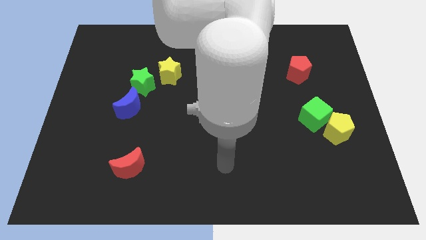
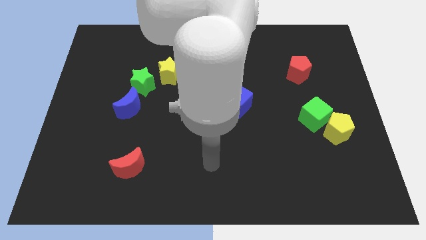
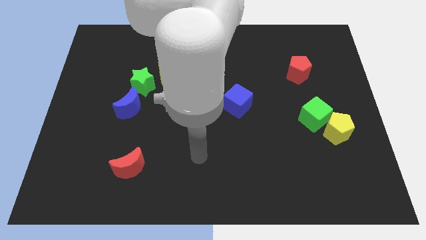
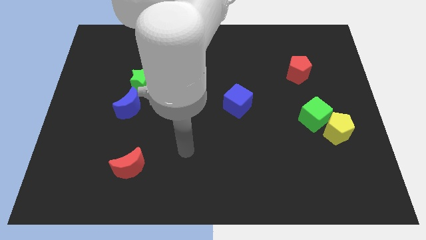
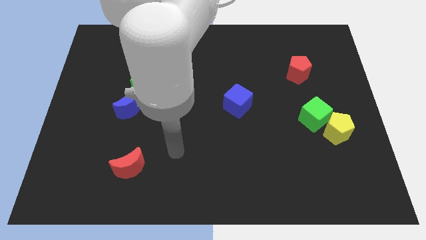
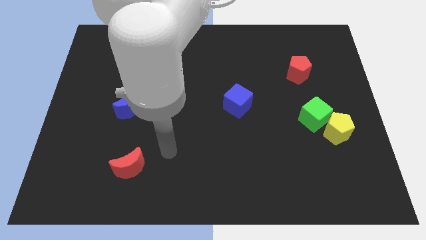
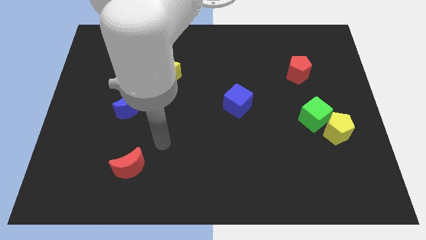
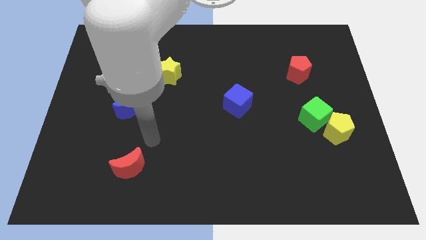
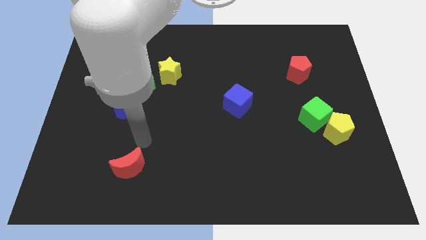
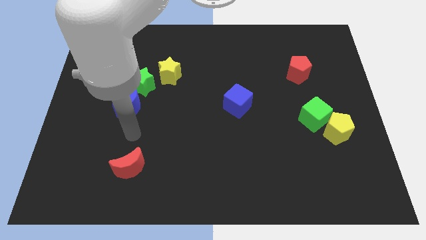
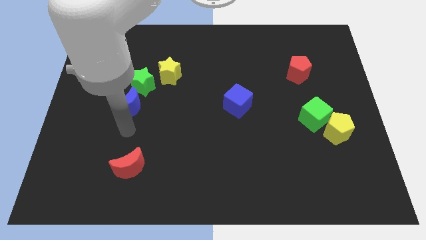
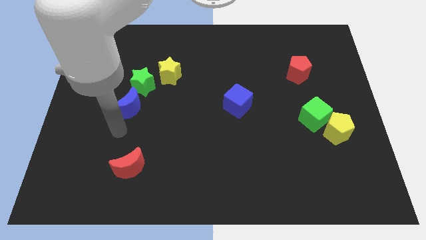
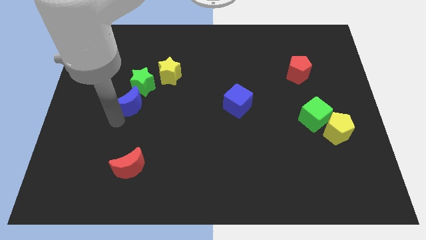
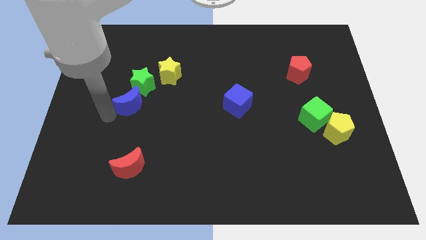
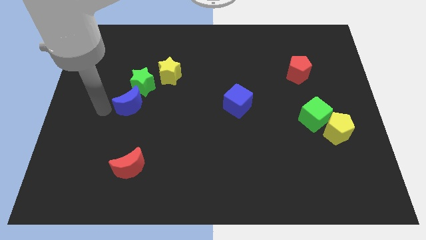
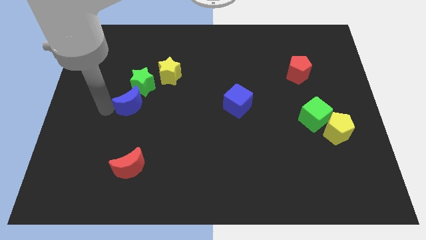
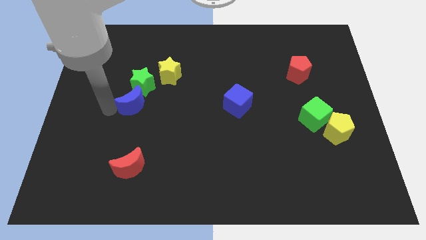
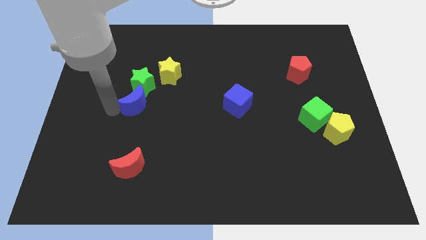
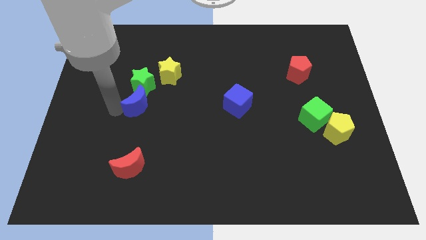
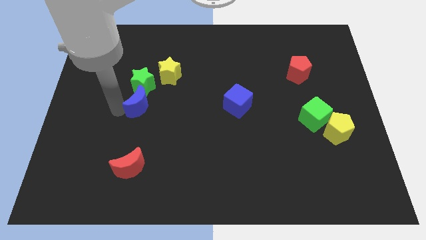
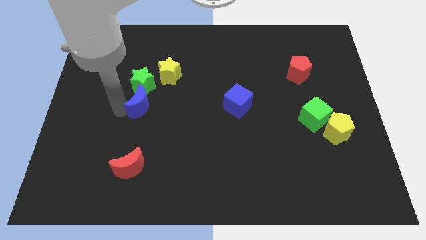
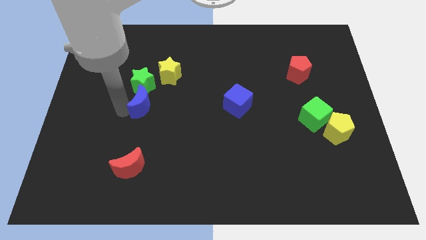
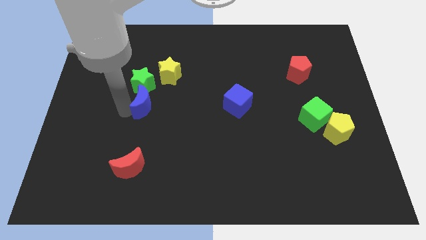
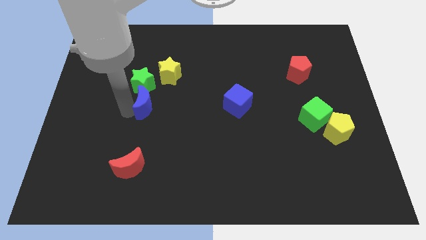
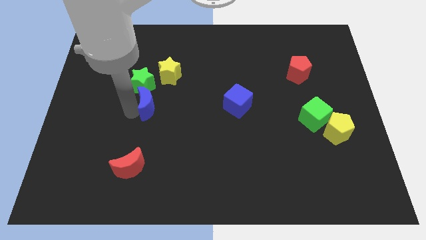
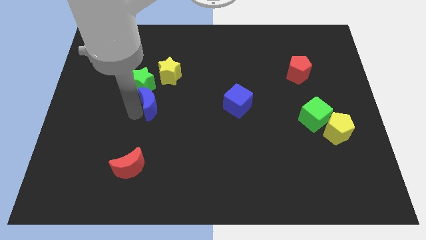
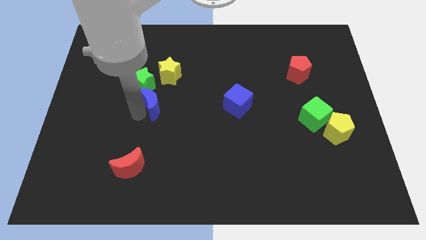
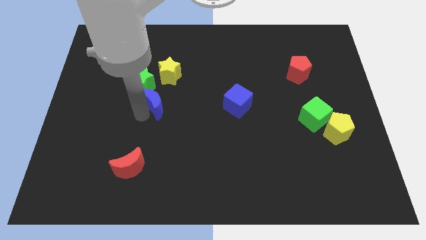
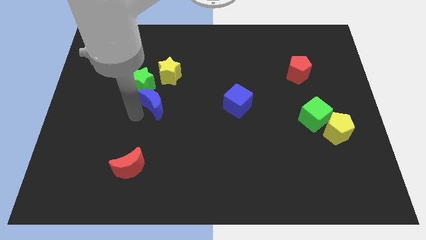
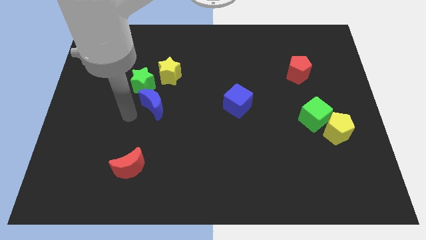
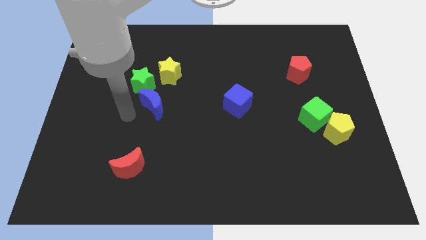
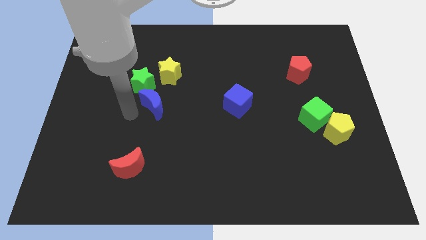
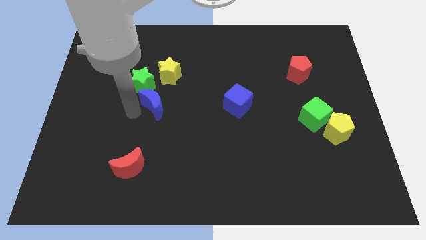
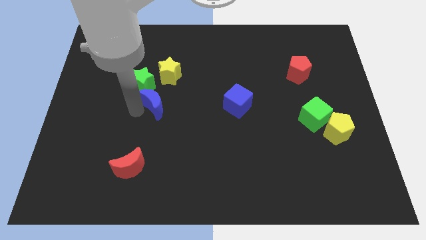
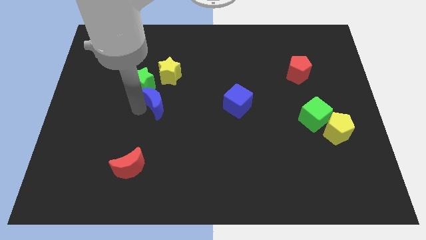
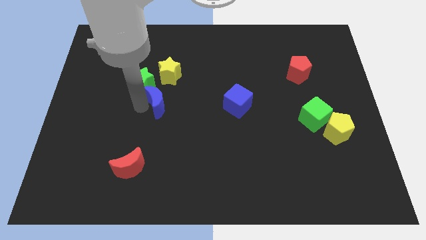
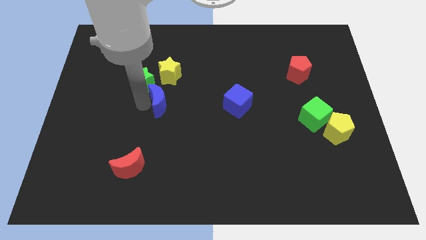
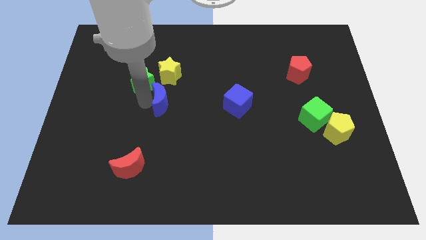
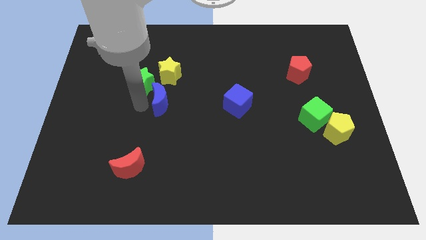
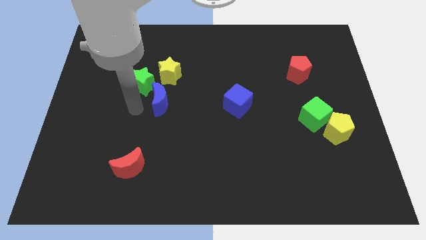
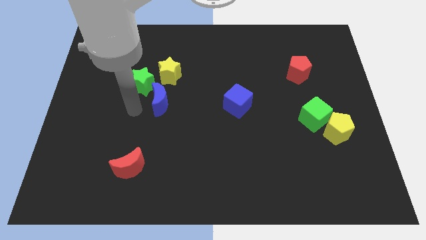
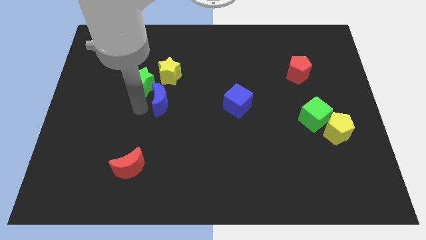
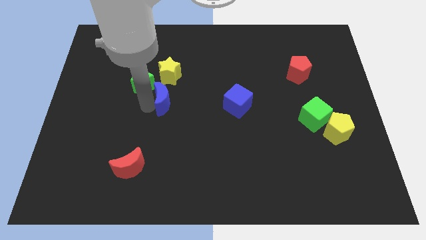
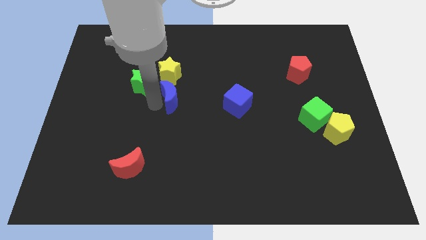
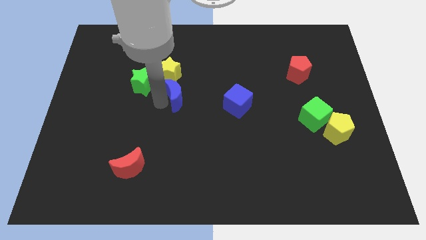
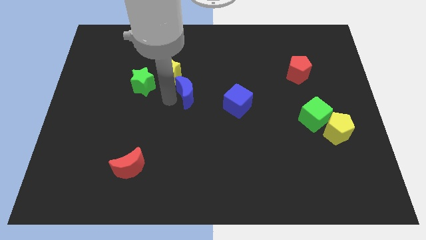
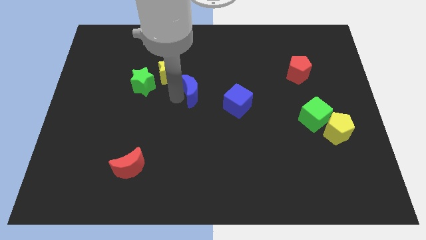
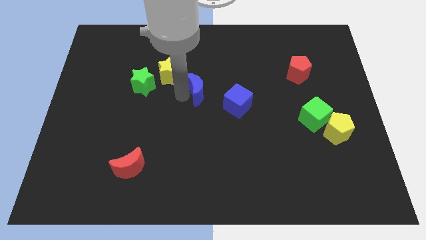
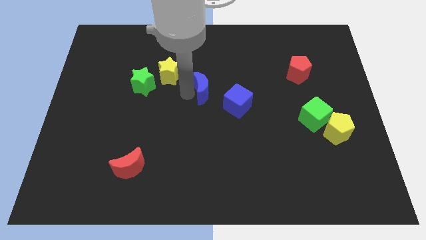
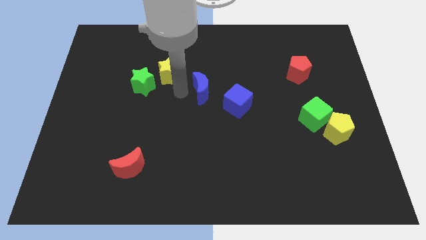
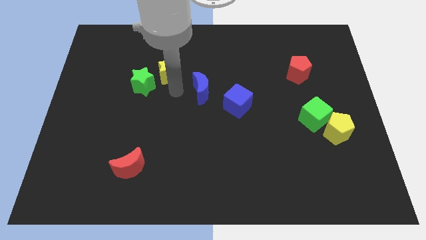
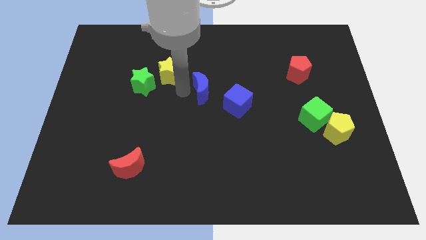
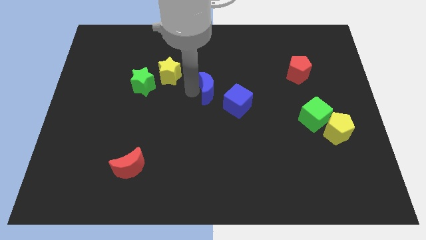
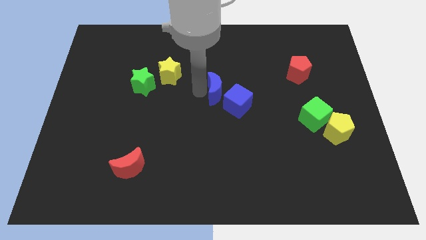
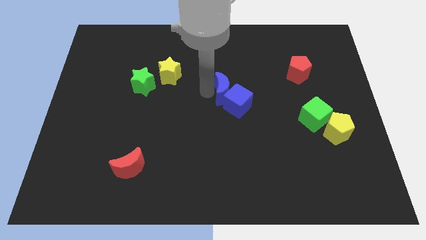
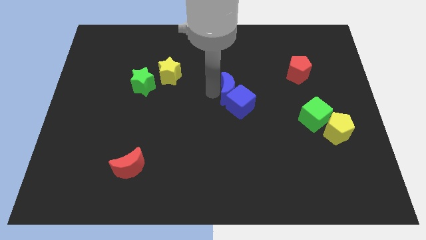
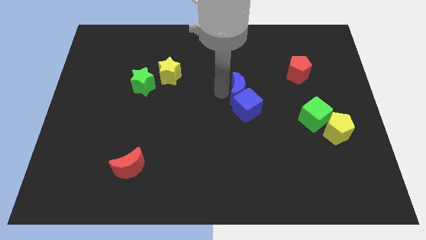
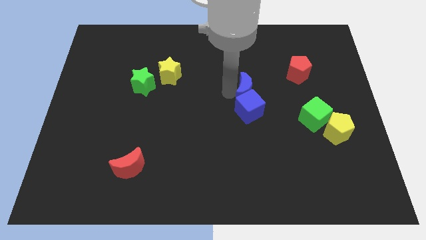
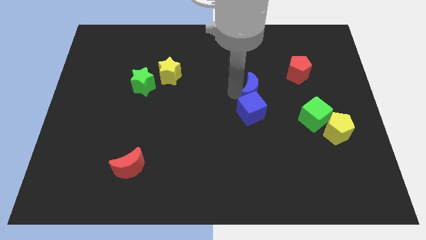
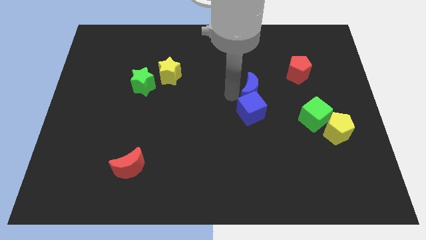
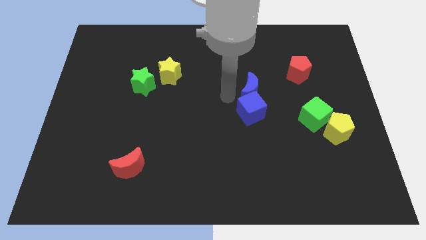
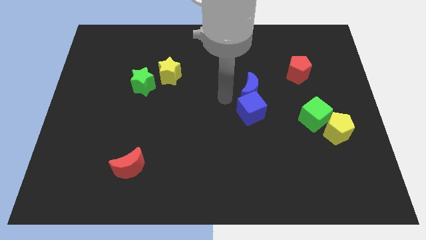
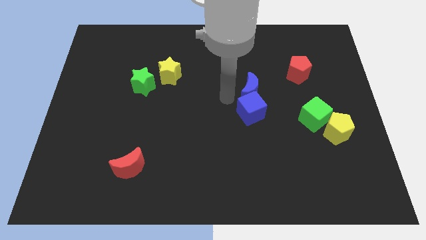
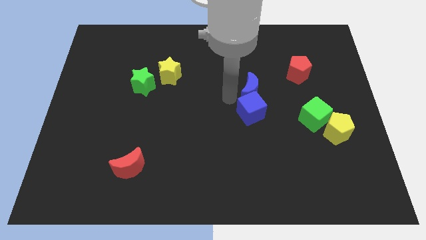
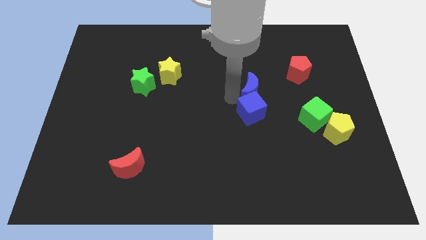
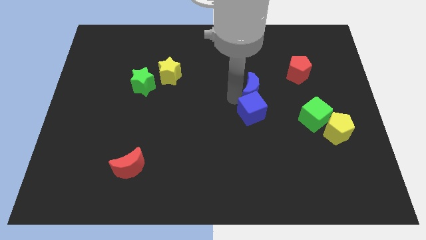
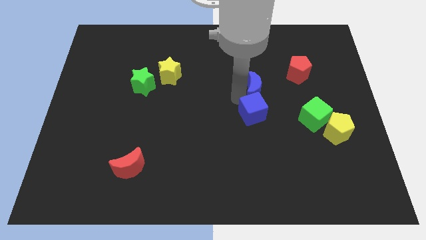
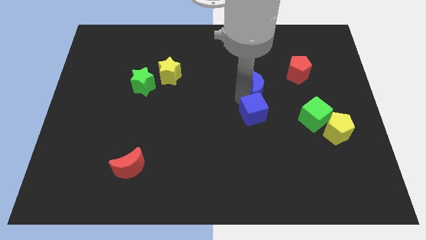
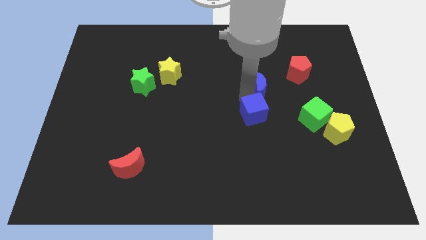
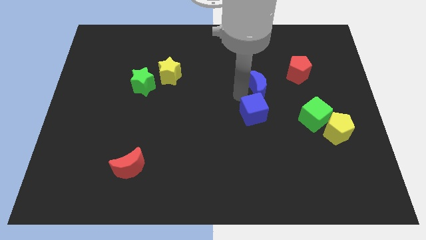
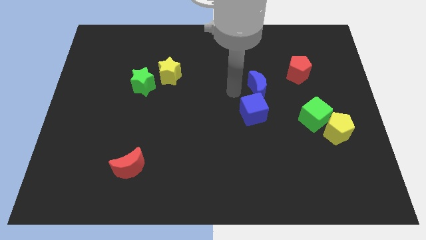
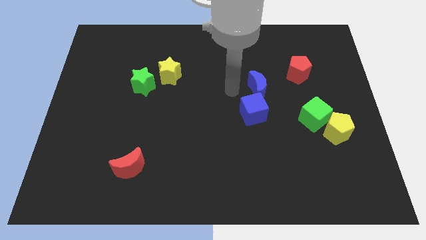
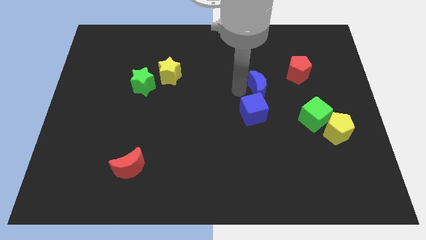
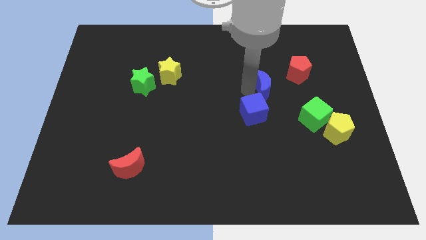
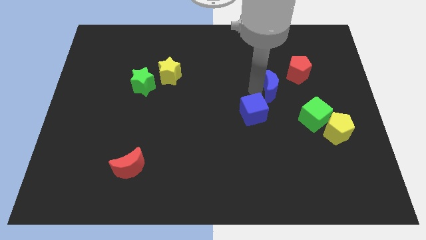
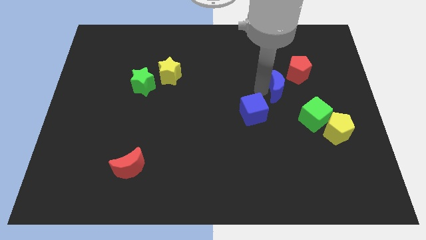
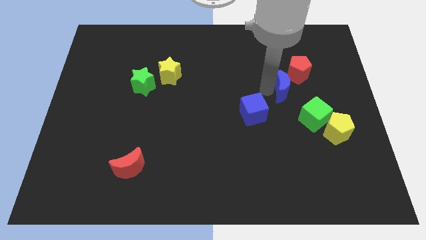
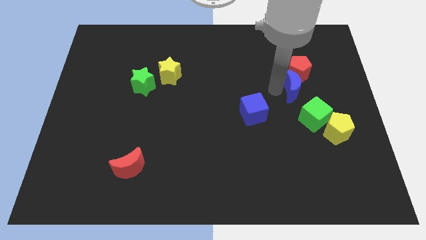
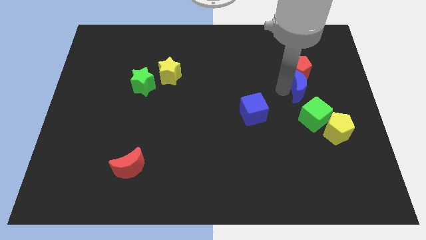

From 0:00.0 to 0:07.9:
slide the blue moon to the bottom right side of the red pentagon
